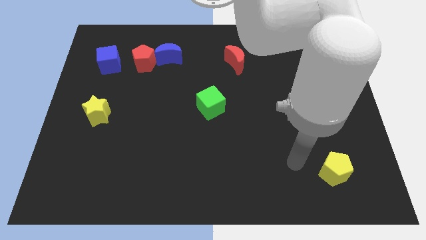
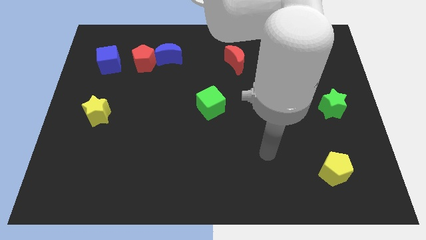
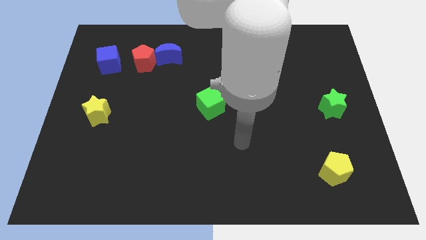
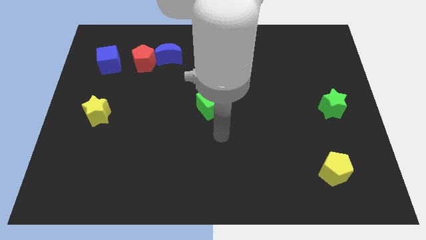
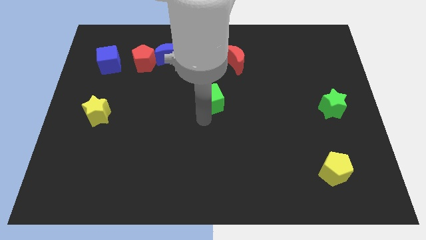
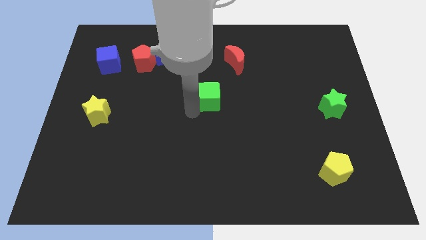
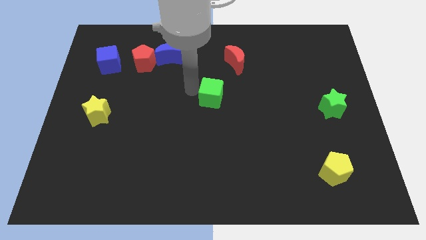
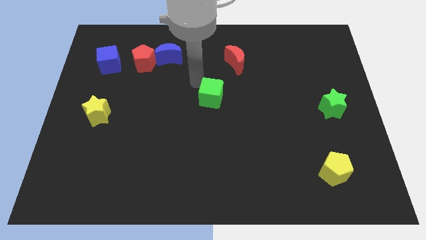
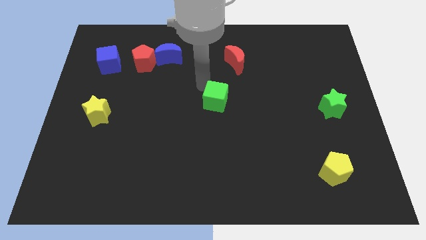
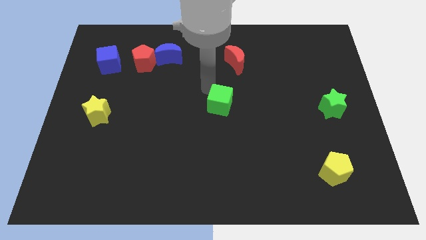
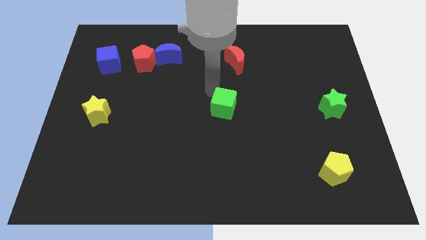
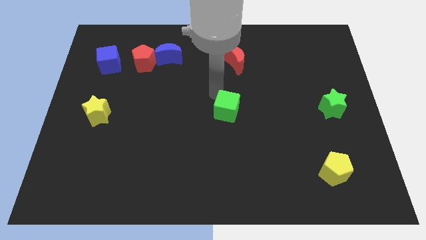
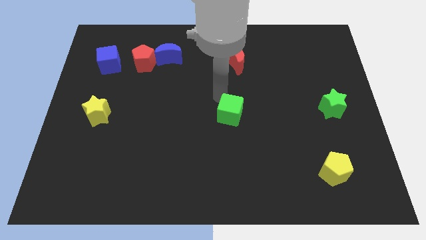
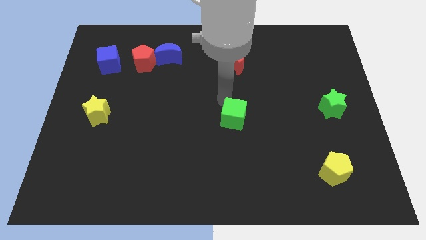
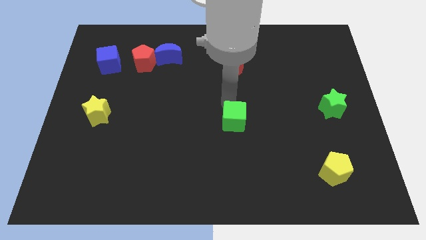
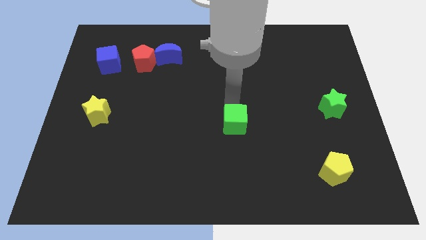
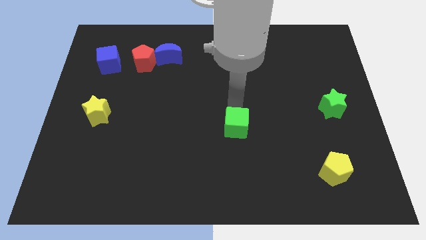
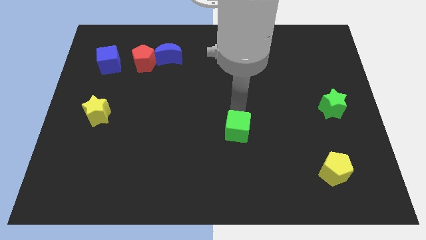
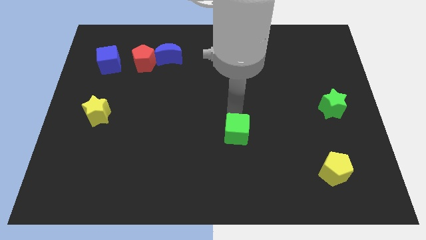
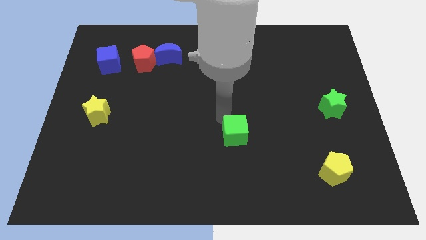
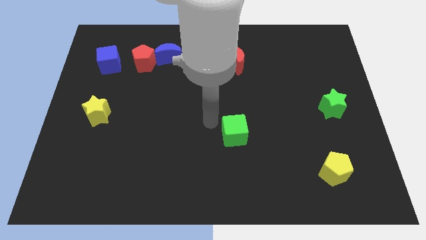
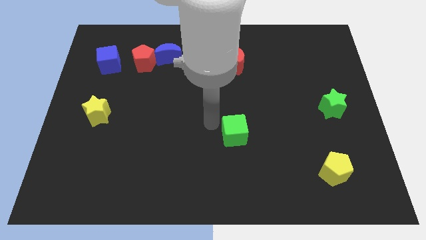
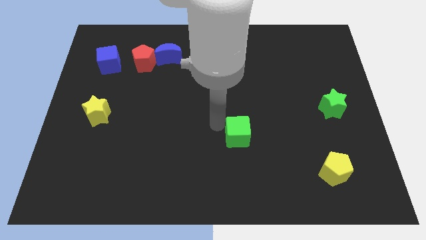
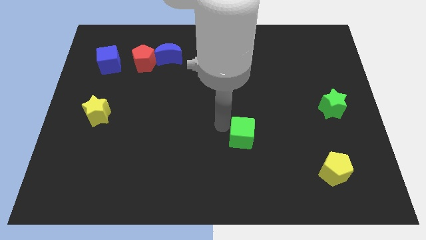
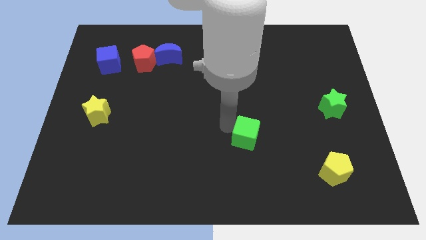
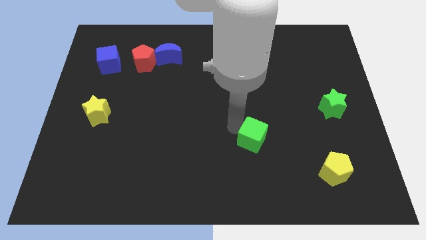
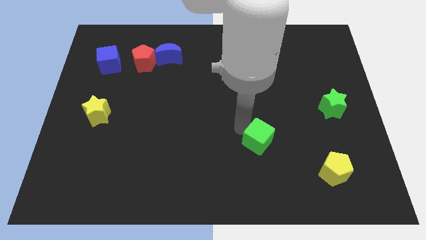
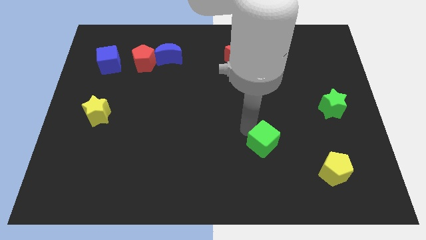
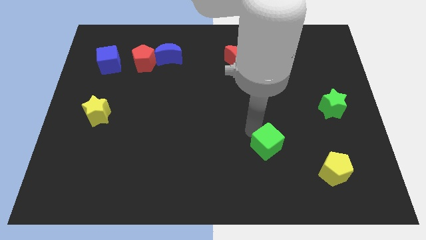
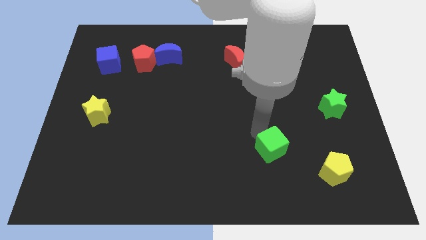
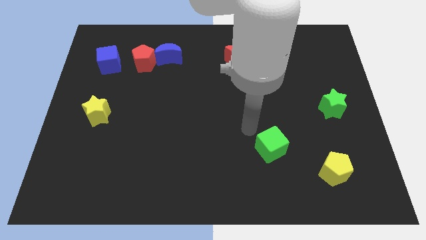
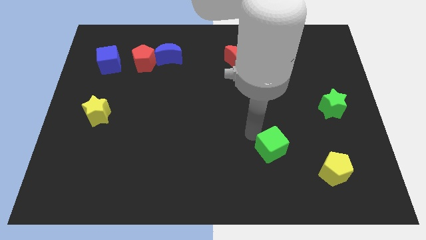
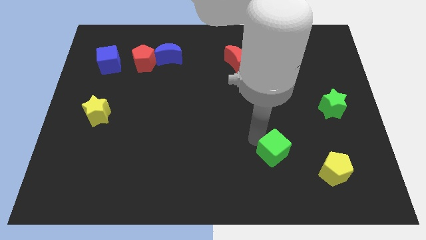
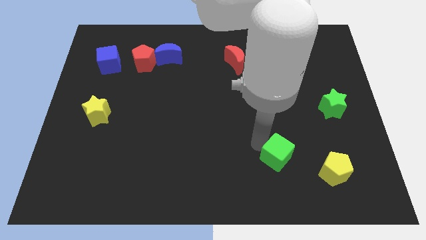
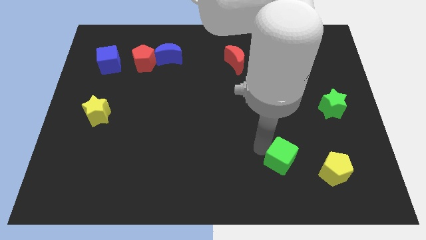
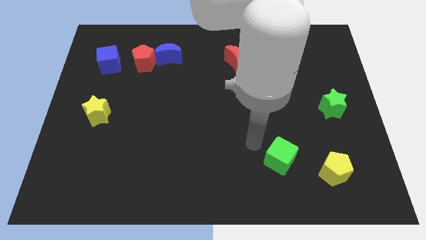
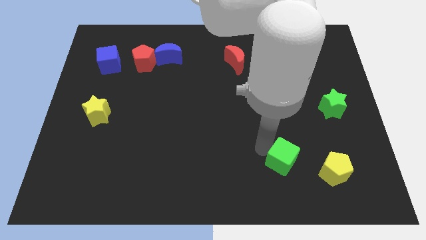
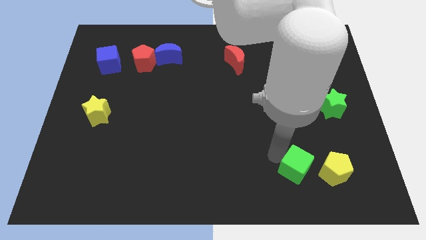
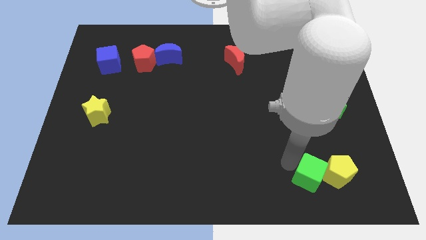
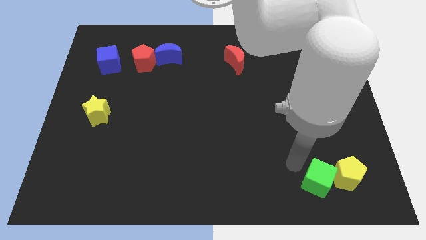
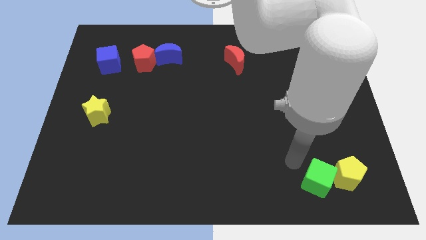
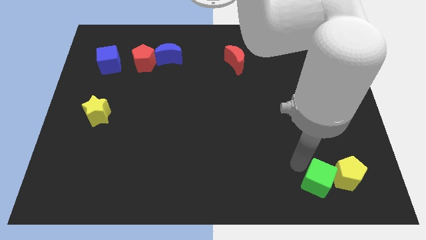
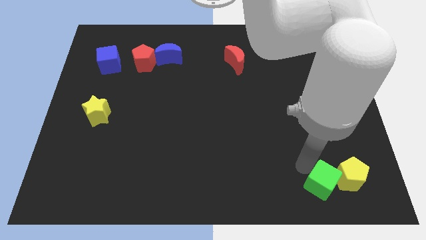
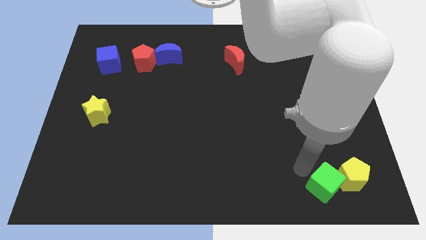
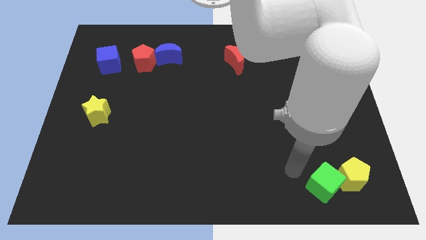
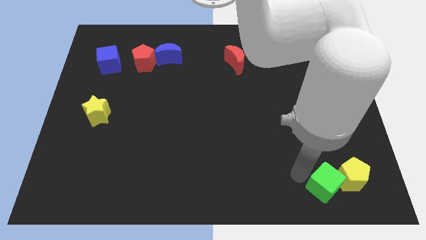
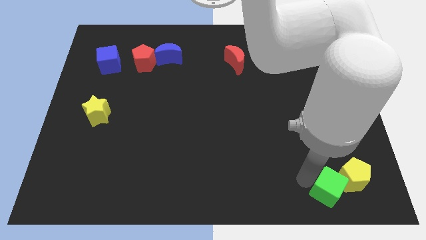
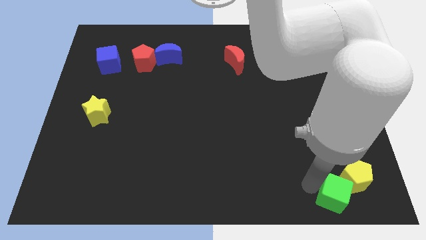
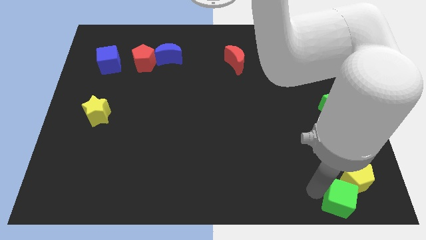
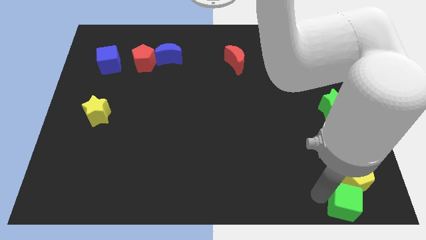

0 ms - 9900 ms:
push the green cube to the bottom right corner

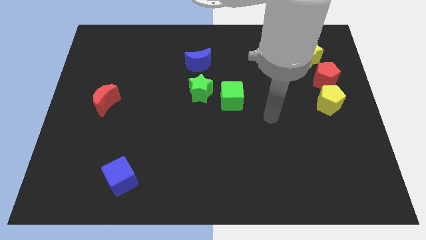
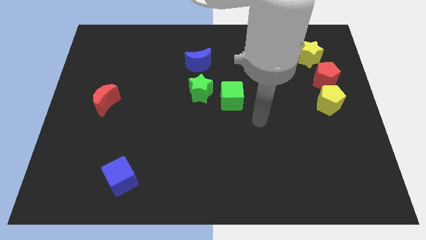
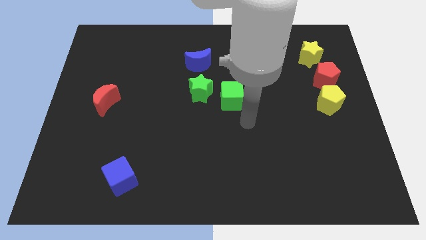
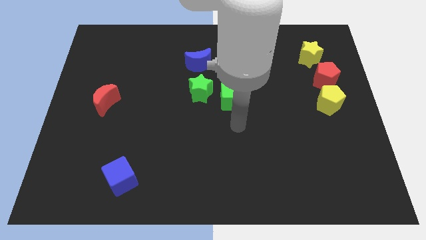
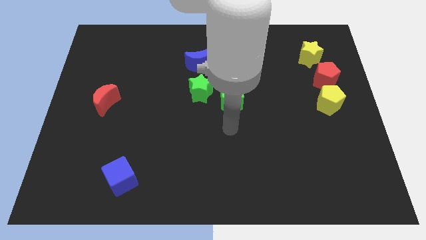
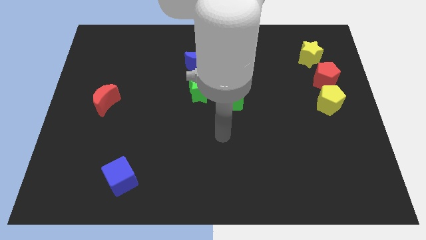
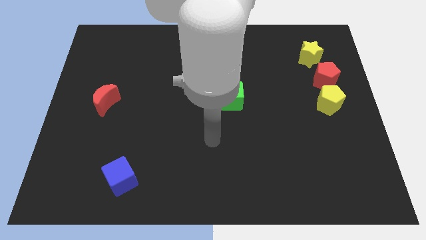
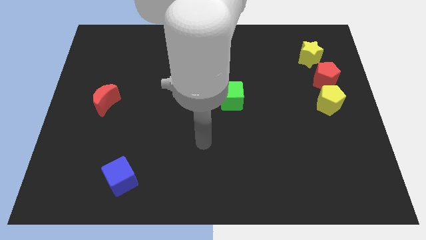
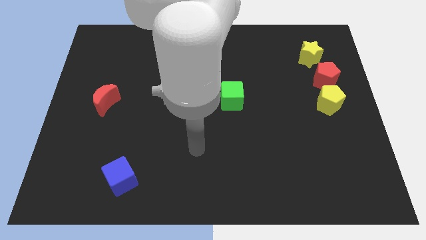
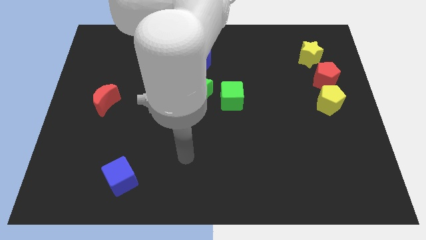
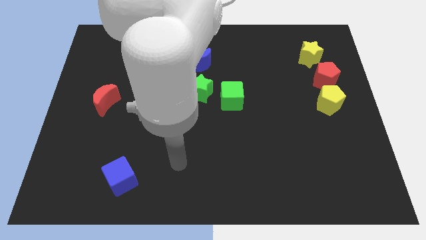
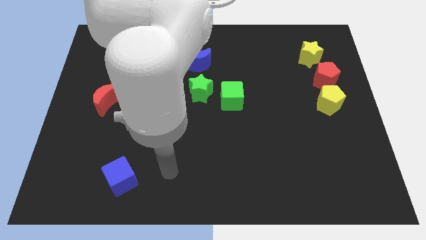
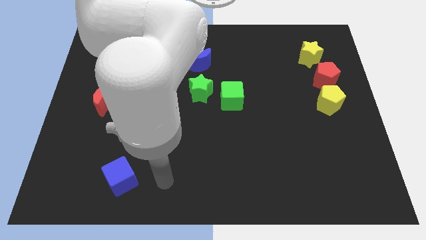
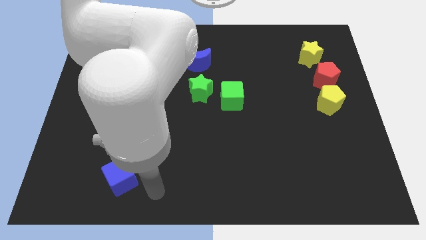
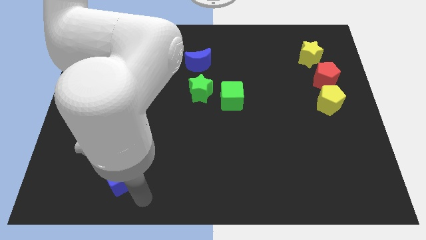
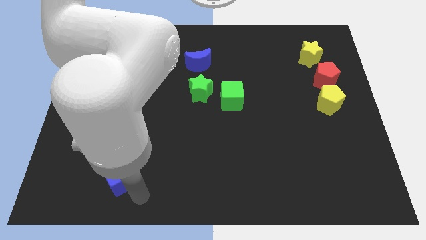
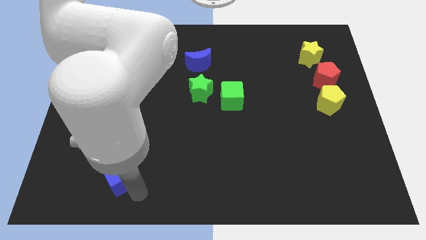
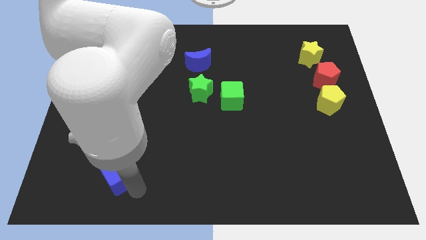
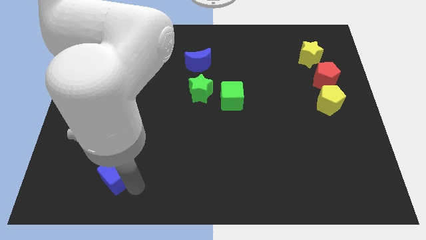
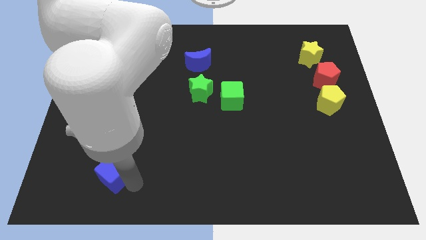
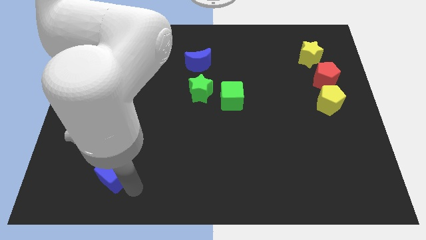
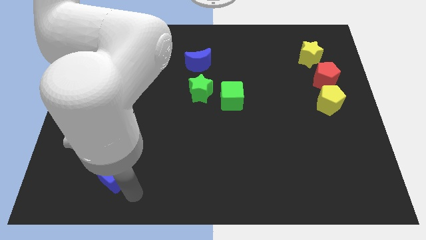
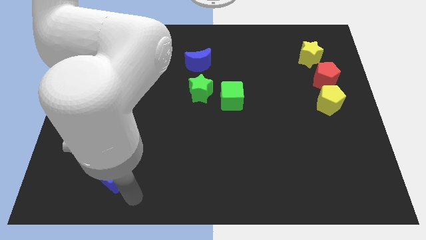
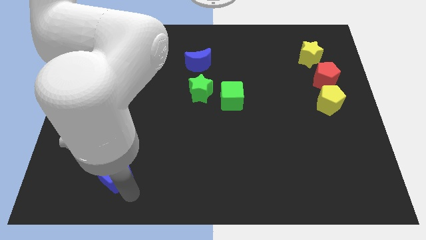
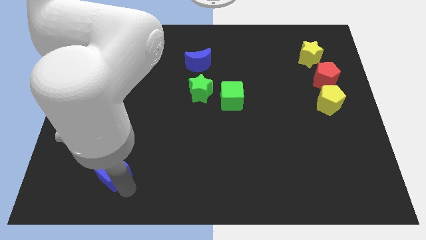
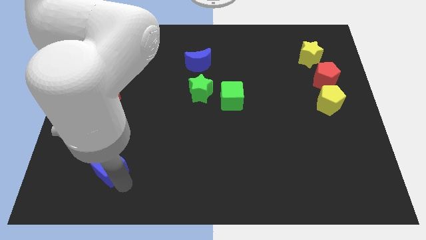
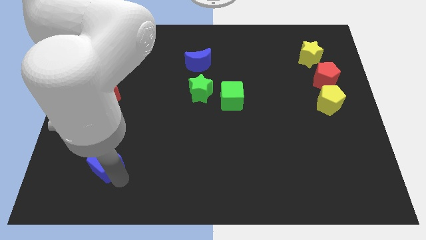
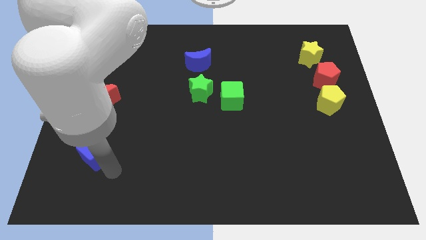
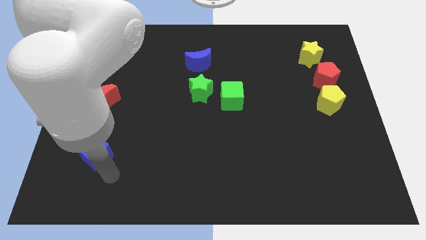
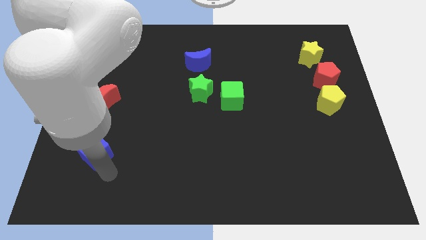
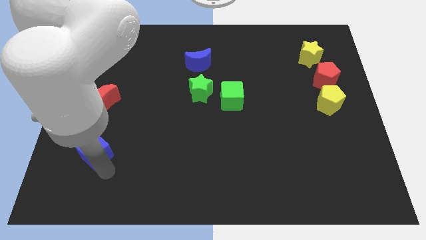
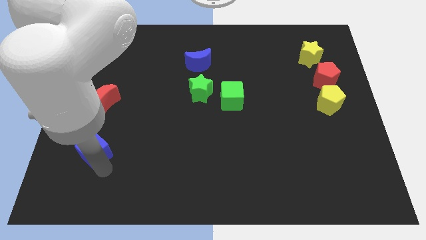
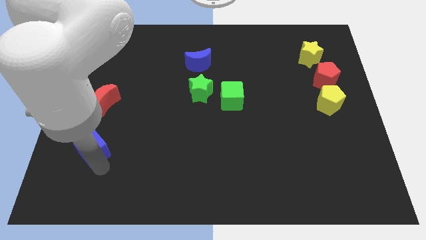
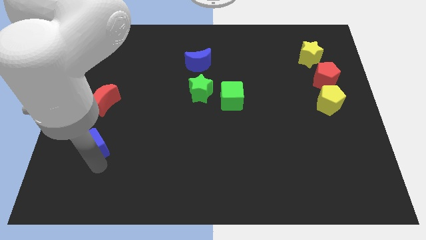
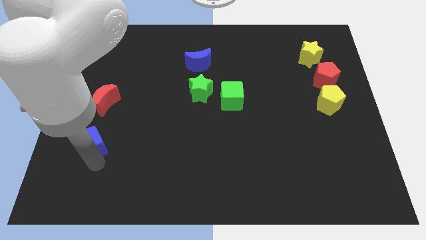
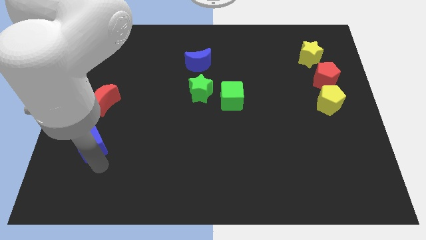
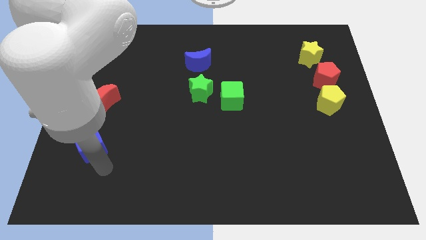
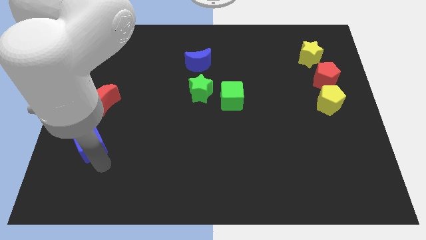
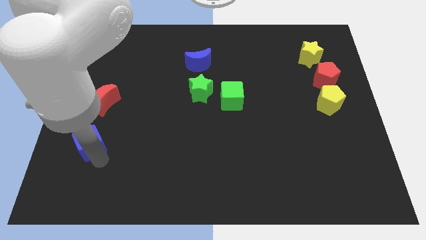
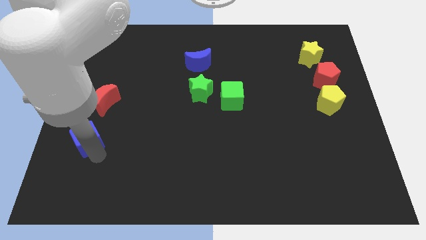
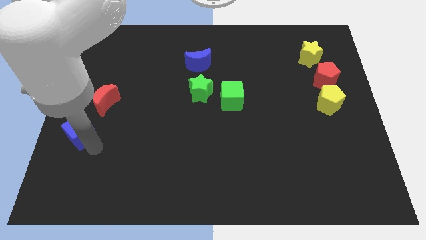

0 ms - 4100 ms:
push the blue cube to the left side
